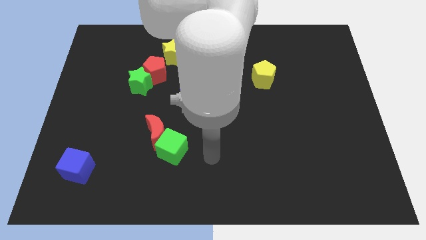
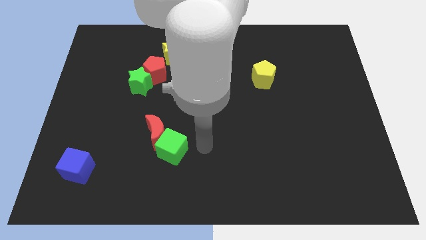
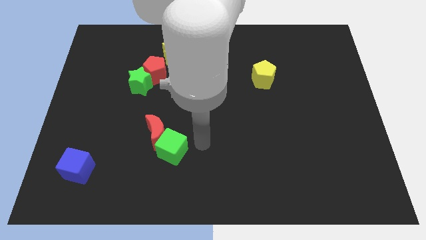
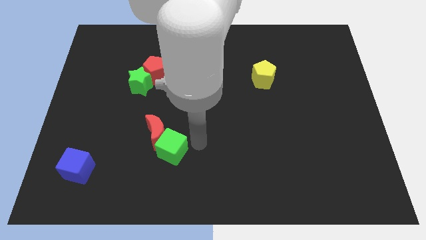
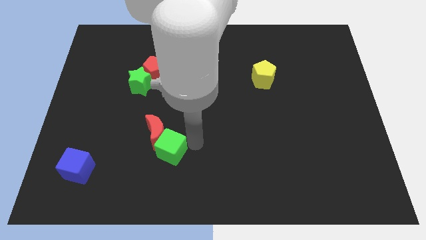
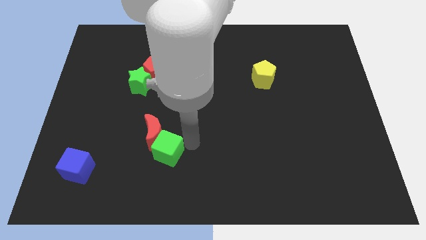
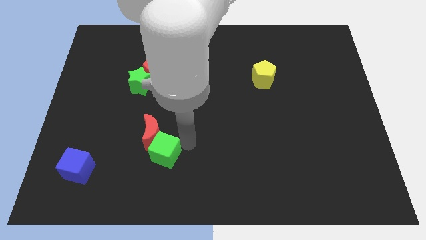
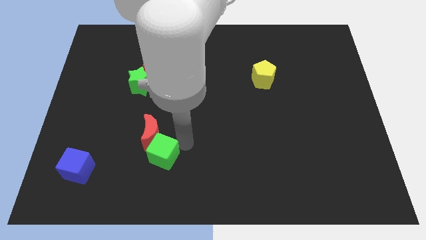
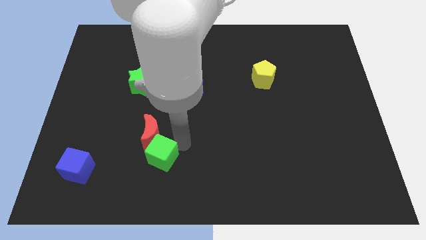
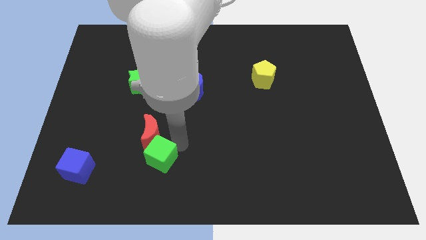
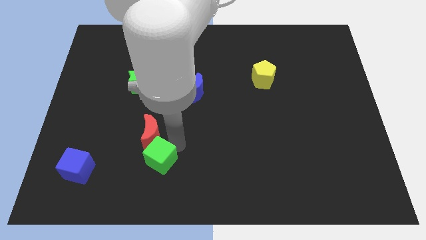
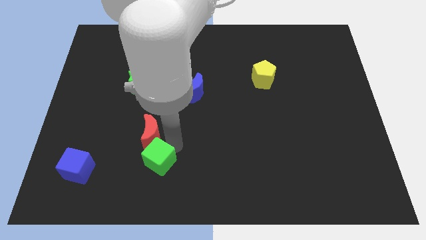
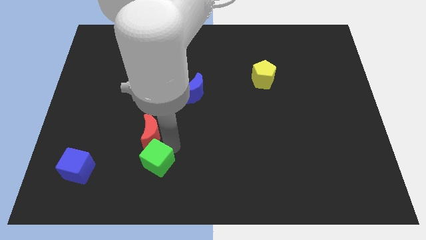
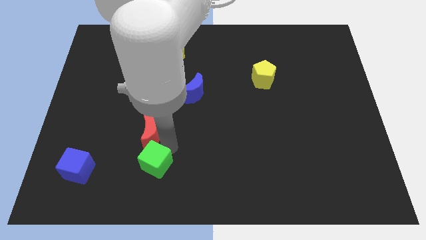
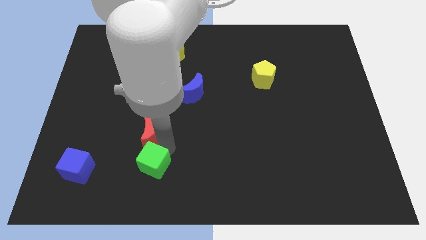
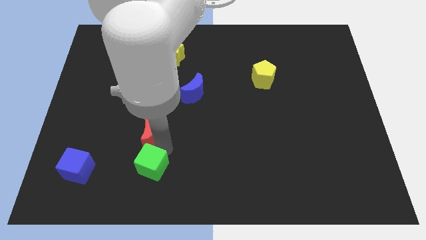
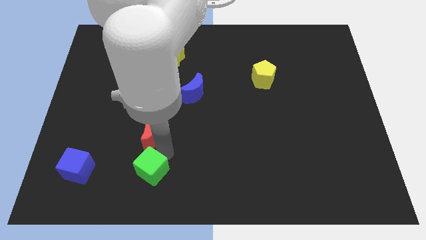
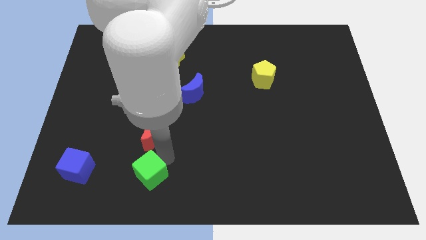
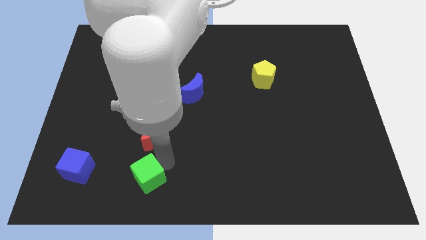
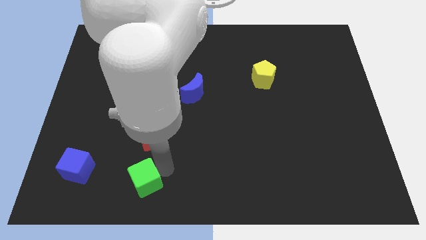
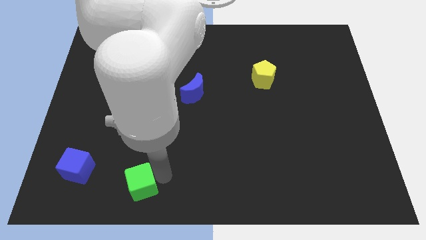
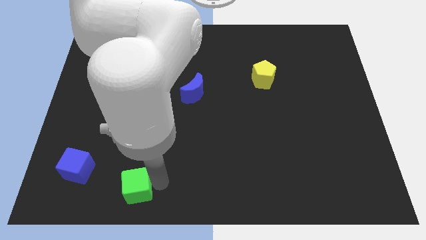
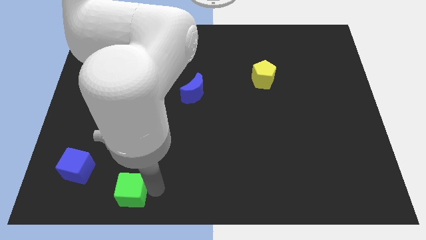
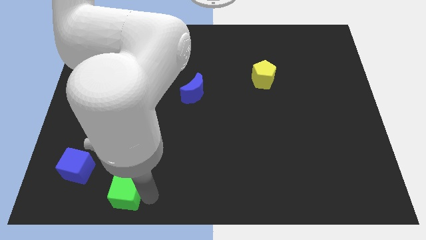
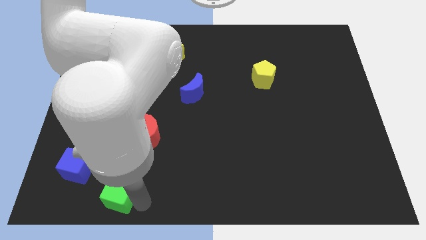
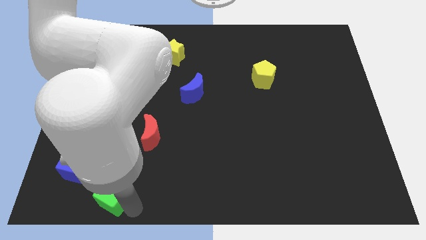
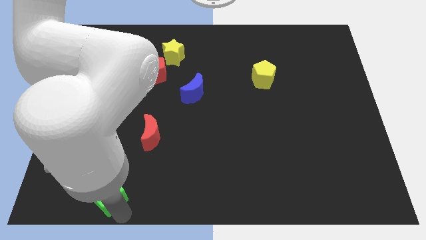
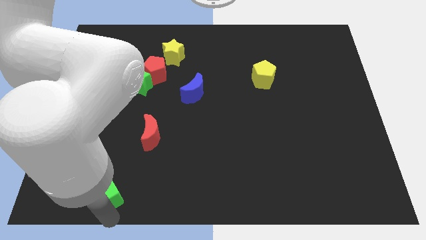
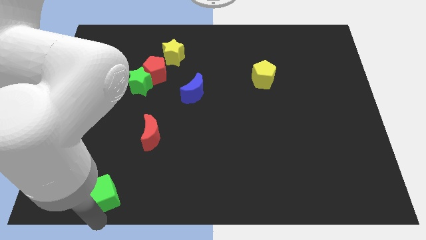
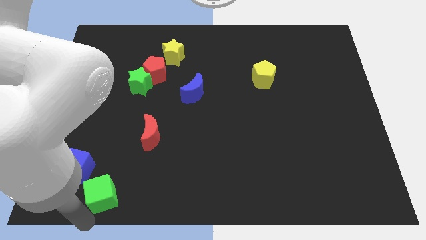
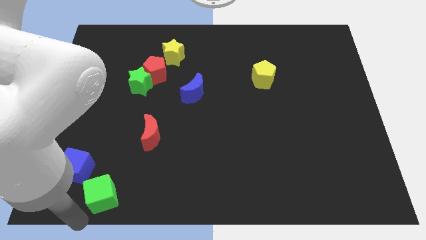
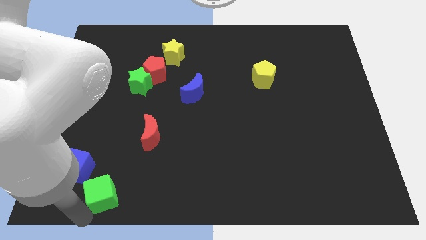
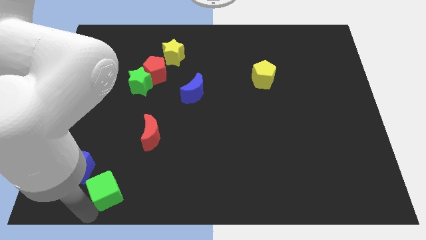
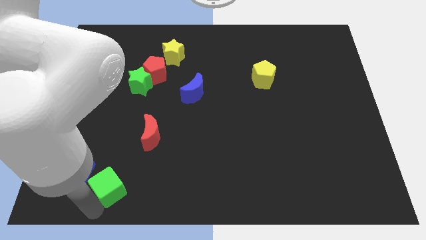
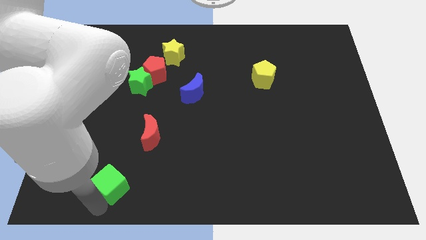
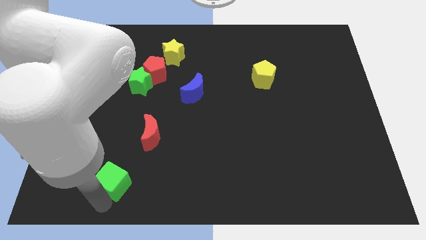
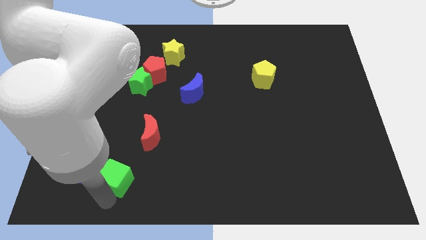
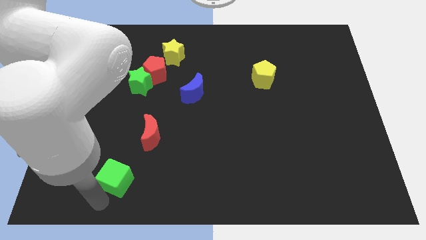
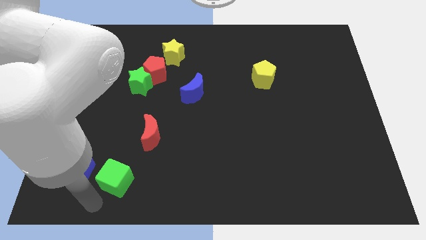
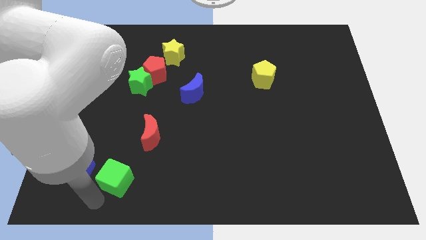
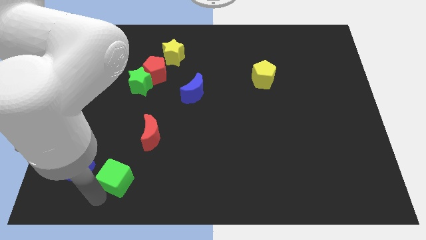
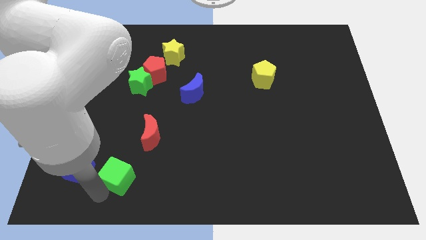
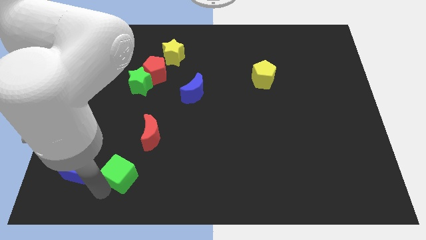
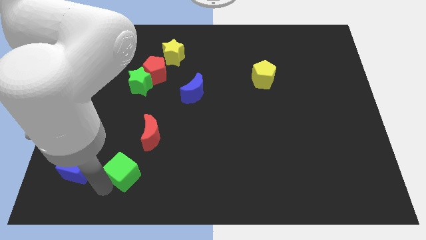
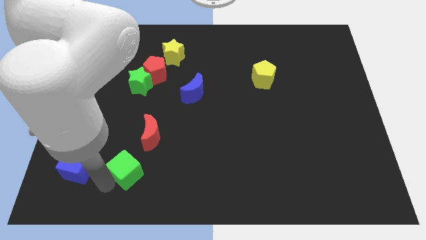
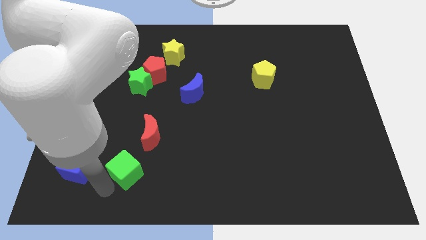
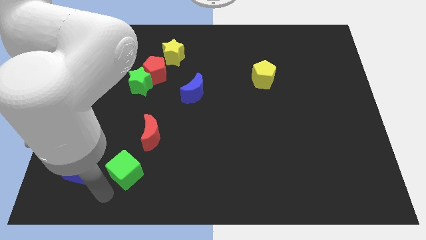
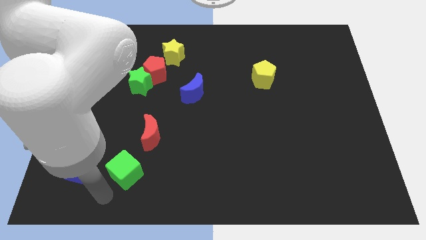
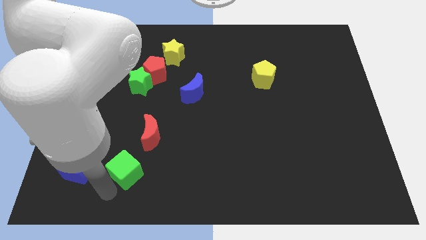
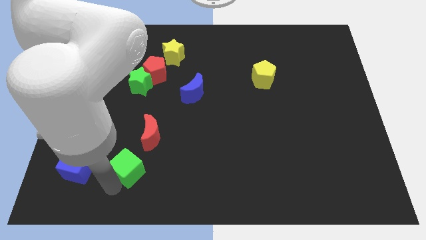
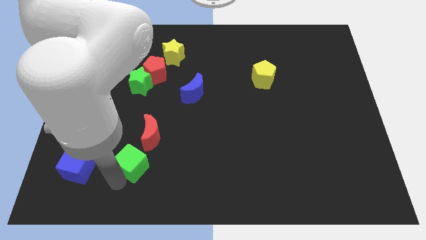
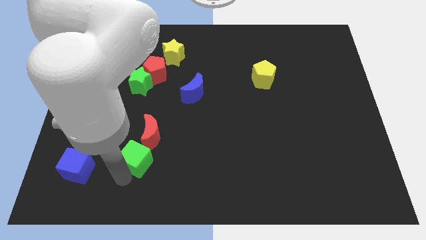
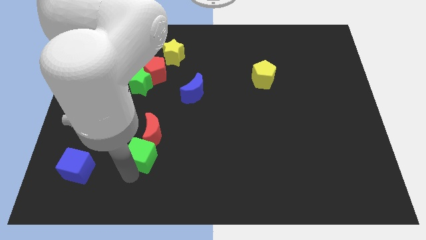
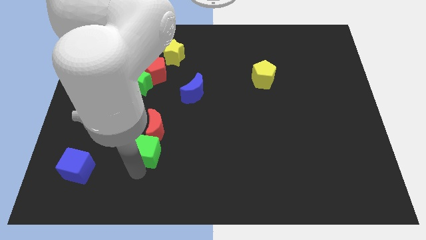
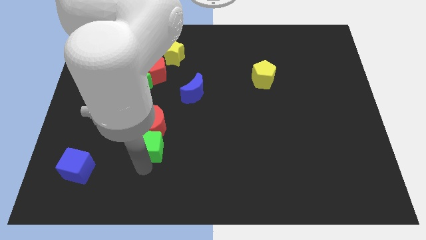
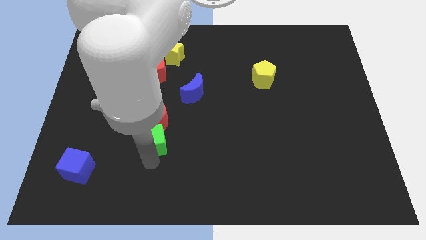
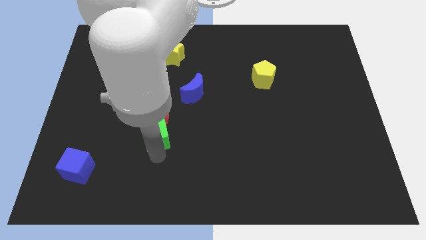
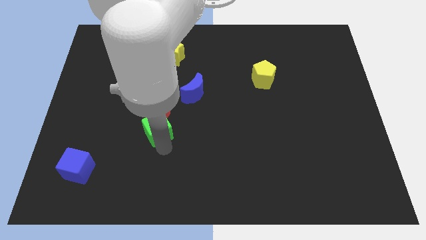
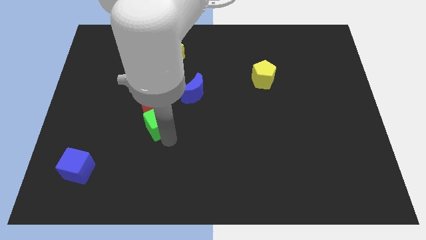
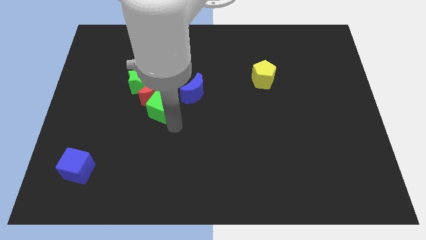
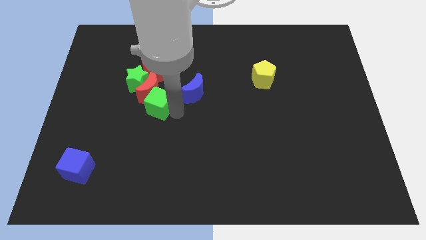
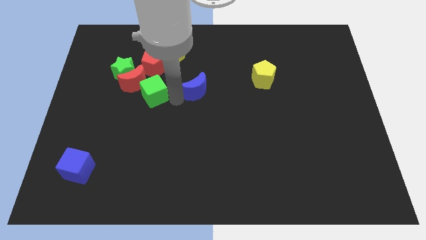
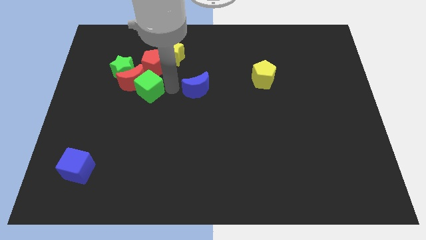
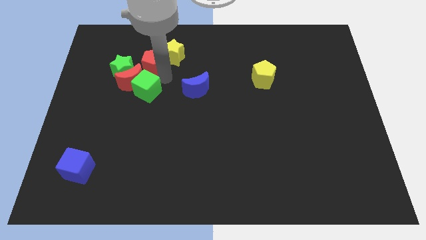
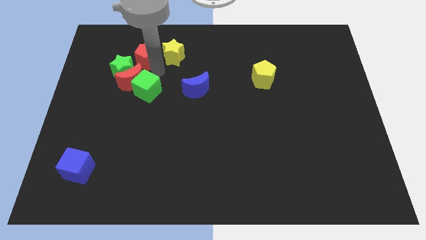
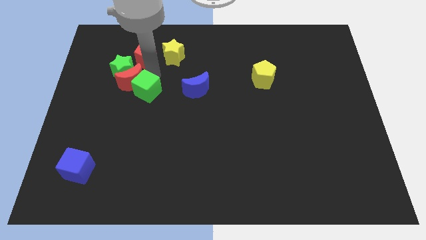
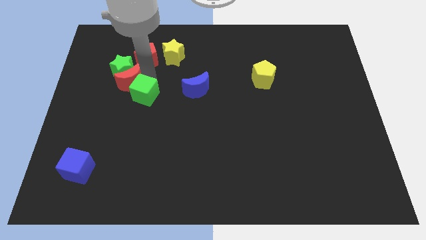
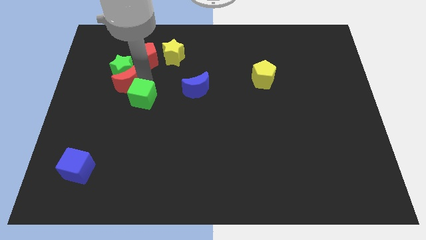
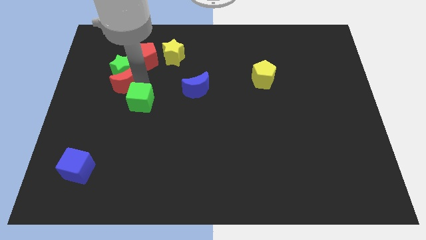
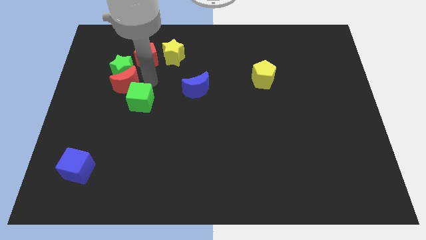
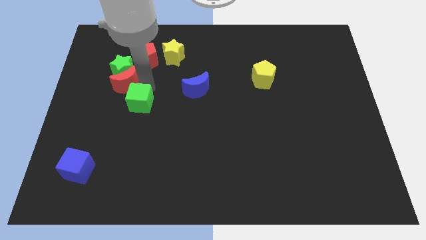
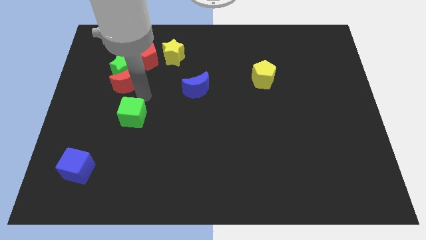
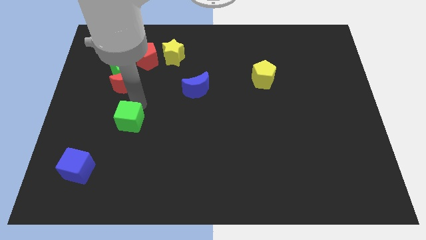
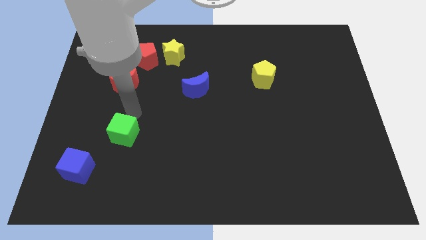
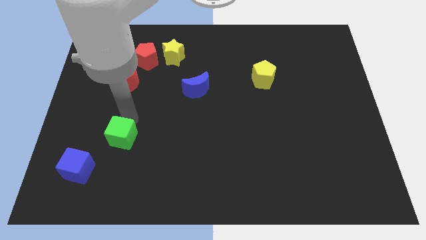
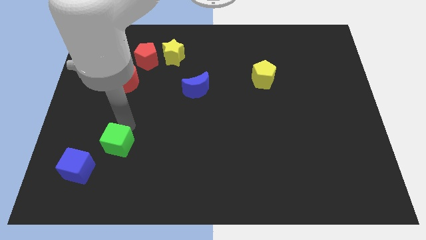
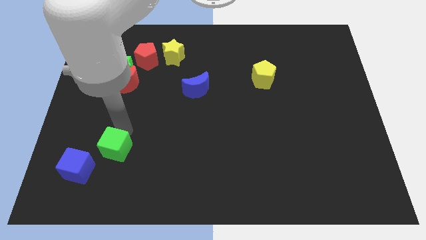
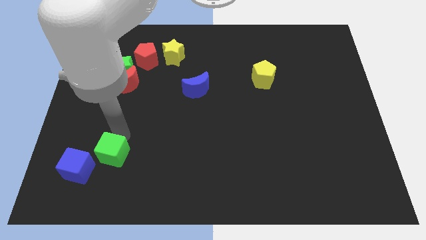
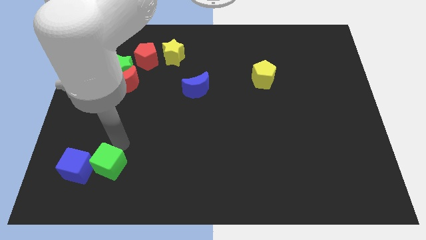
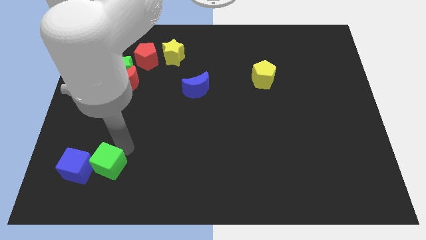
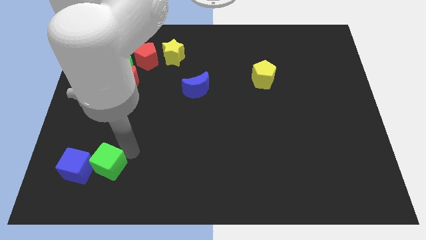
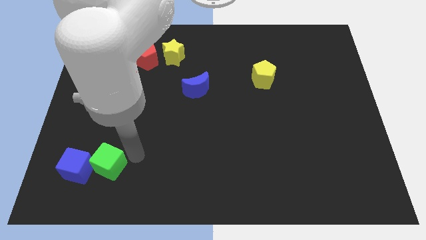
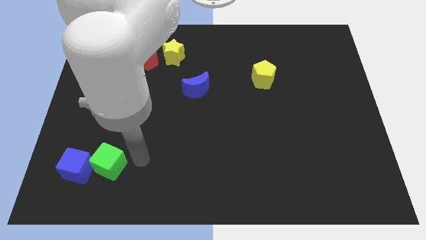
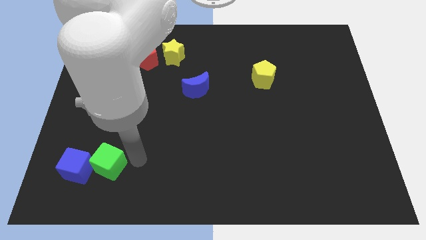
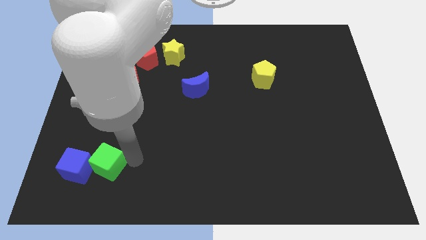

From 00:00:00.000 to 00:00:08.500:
slide the green cube to the blue cube
